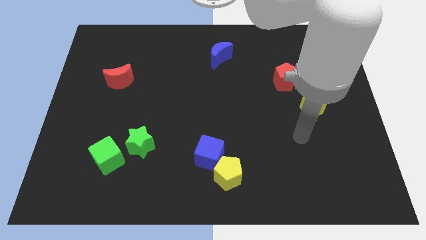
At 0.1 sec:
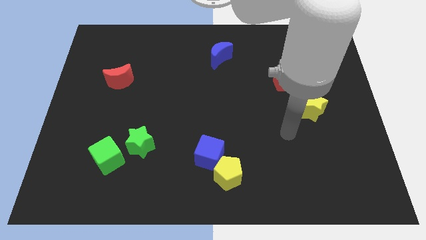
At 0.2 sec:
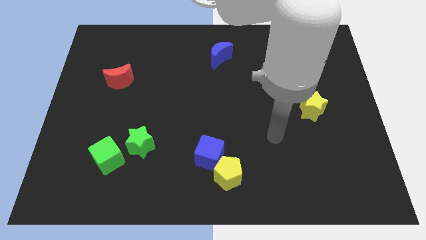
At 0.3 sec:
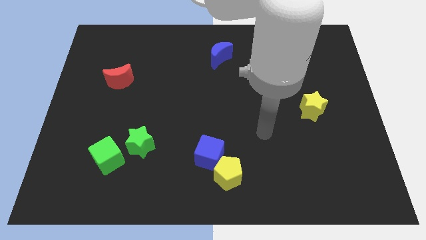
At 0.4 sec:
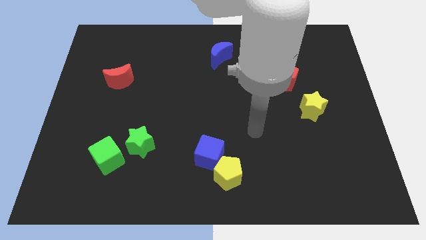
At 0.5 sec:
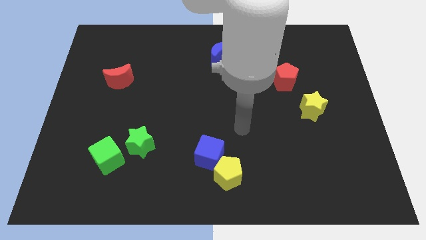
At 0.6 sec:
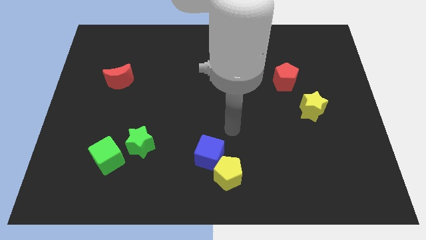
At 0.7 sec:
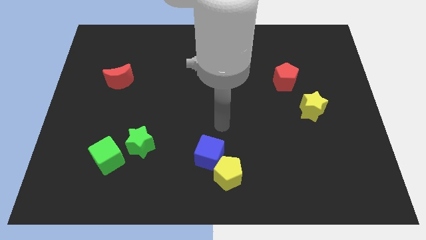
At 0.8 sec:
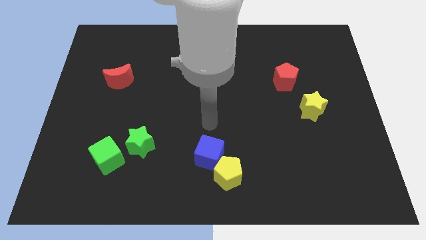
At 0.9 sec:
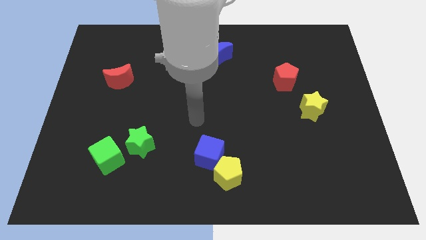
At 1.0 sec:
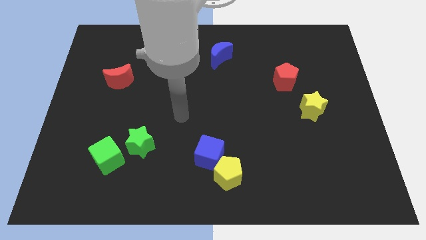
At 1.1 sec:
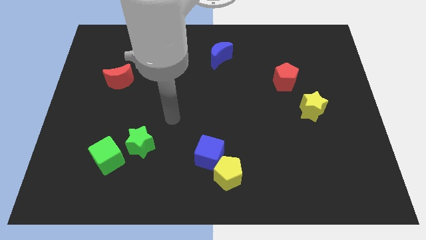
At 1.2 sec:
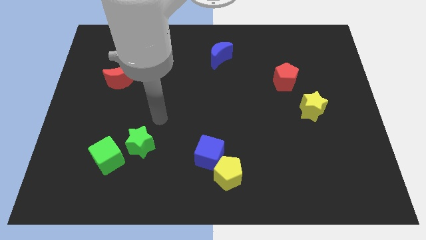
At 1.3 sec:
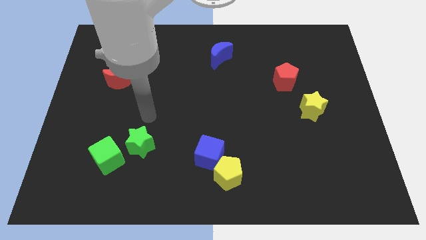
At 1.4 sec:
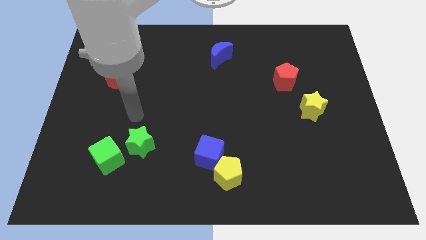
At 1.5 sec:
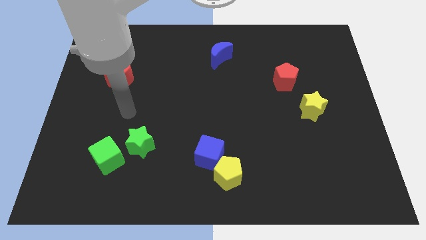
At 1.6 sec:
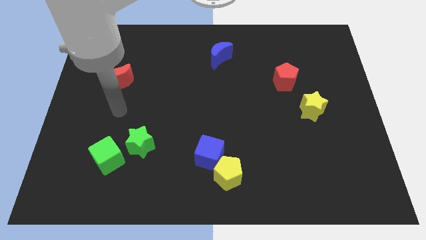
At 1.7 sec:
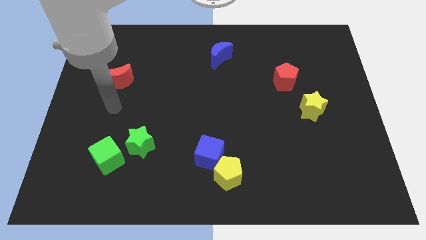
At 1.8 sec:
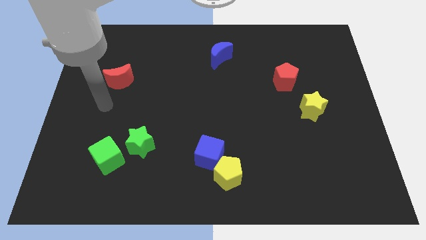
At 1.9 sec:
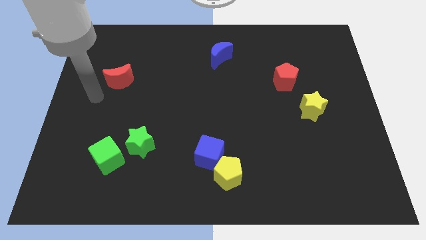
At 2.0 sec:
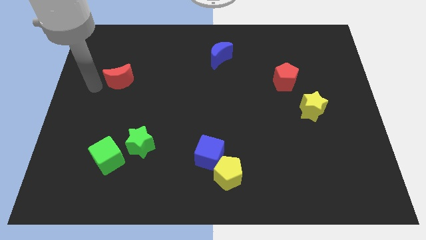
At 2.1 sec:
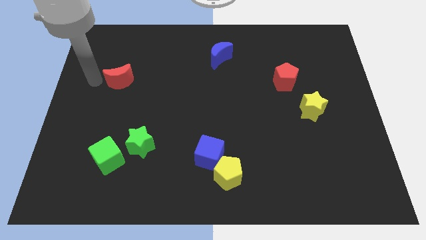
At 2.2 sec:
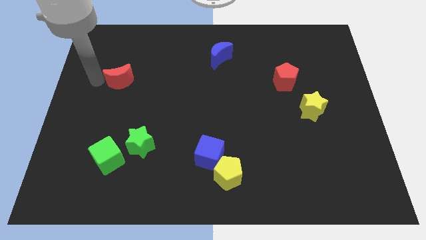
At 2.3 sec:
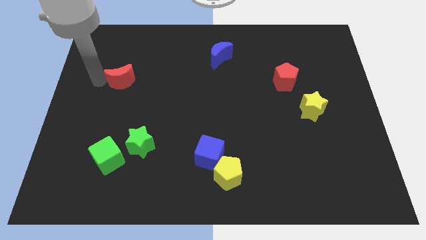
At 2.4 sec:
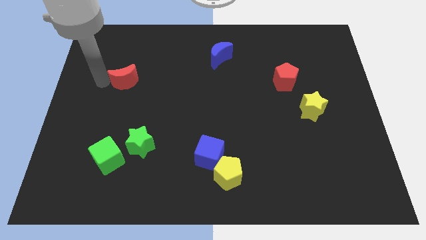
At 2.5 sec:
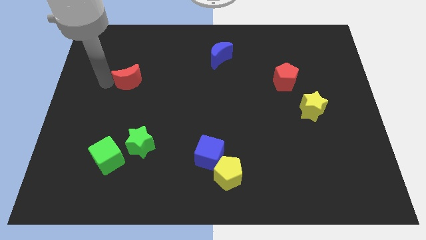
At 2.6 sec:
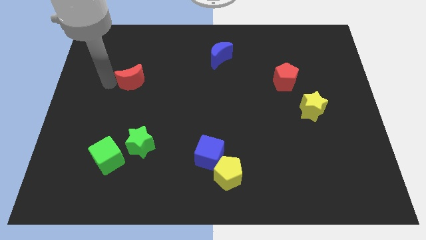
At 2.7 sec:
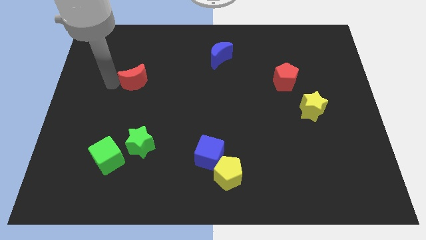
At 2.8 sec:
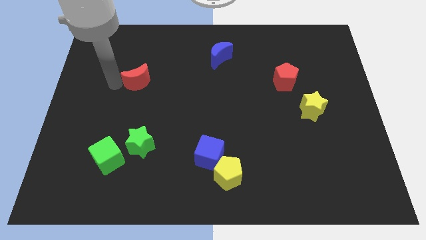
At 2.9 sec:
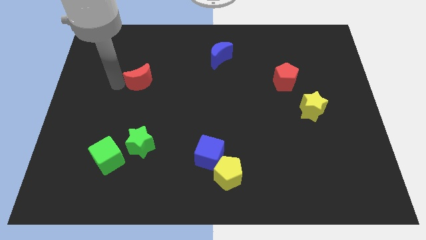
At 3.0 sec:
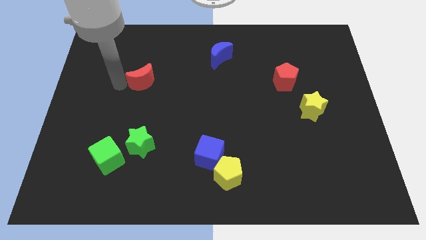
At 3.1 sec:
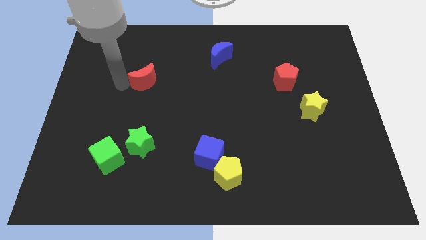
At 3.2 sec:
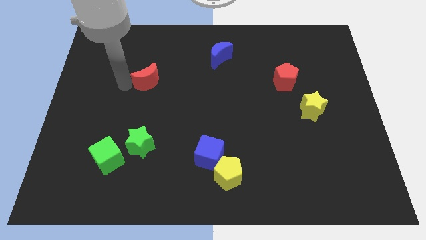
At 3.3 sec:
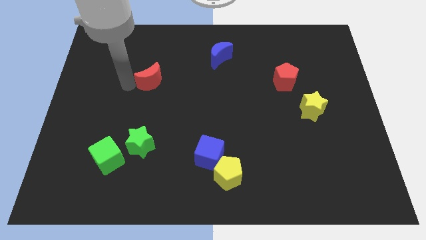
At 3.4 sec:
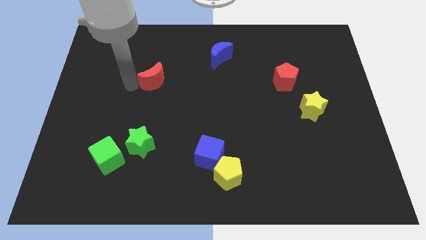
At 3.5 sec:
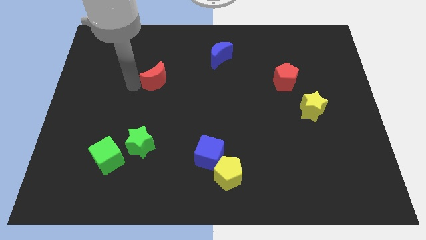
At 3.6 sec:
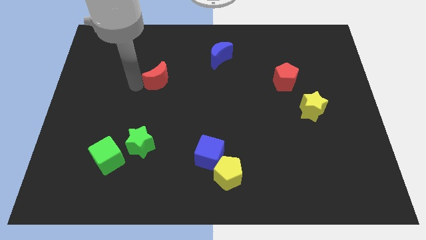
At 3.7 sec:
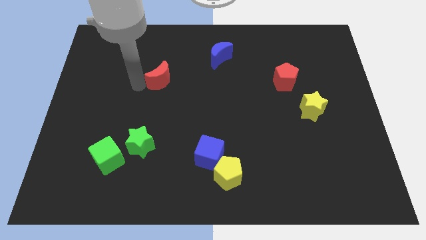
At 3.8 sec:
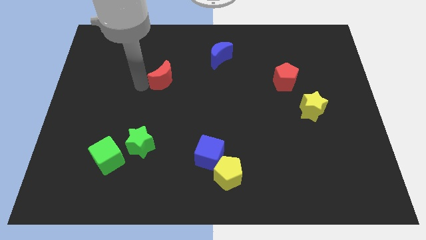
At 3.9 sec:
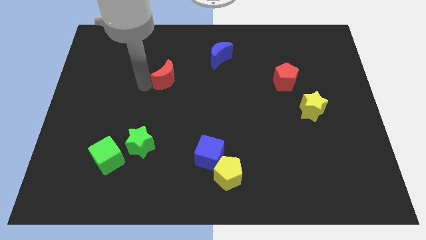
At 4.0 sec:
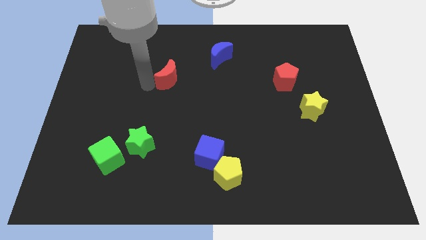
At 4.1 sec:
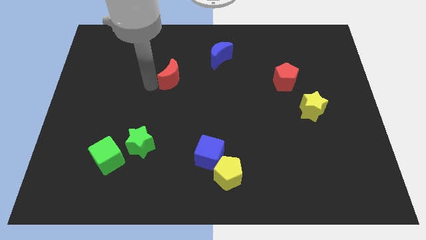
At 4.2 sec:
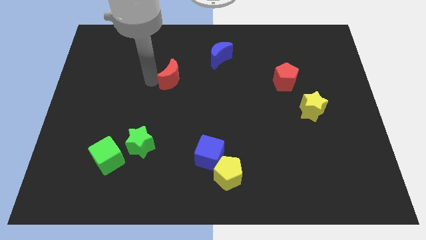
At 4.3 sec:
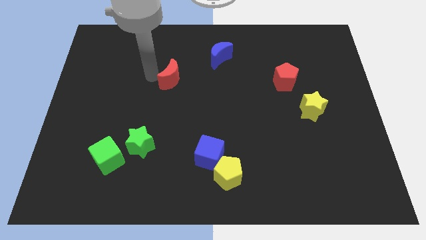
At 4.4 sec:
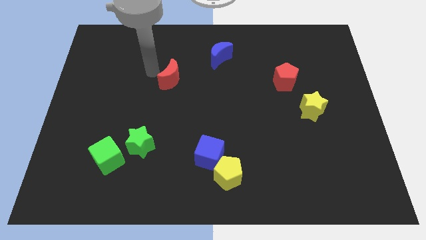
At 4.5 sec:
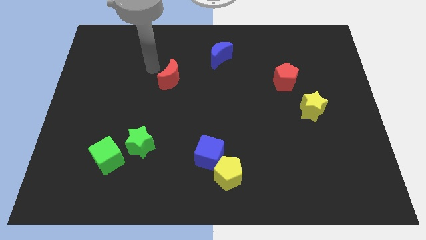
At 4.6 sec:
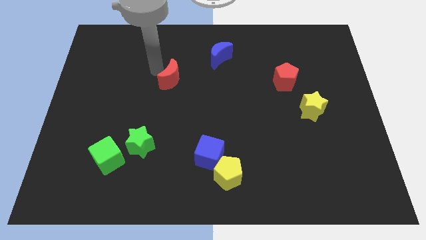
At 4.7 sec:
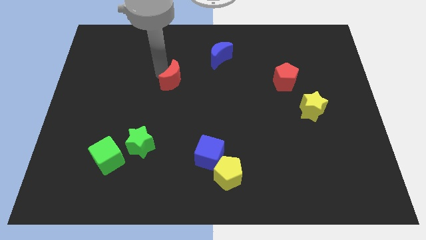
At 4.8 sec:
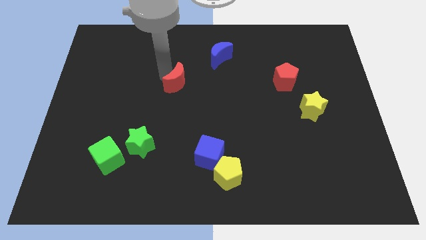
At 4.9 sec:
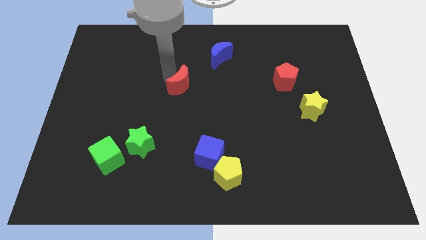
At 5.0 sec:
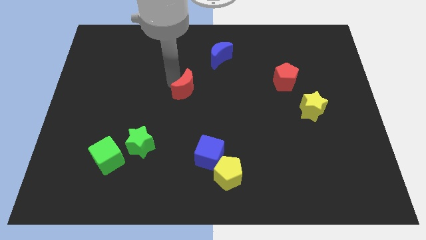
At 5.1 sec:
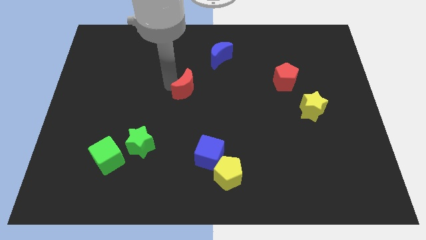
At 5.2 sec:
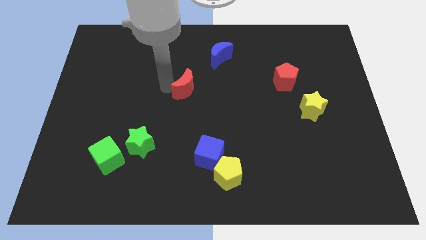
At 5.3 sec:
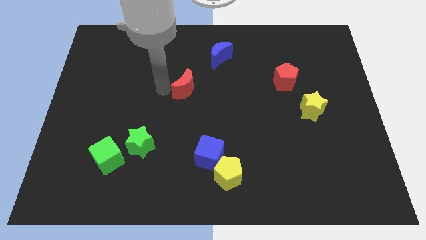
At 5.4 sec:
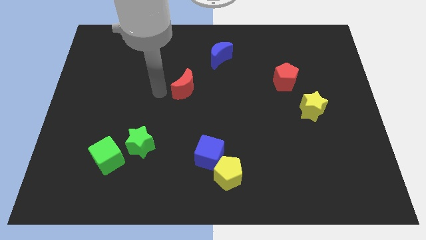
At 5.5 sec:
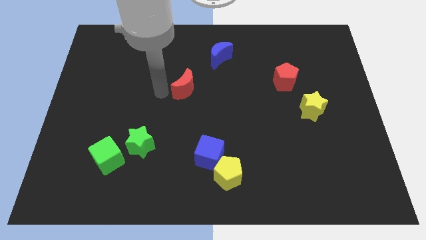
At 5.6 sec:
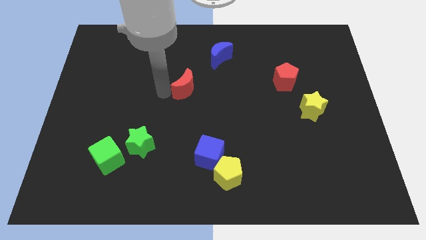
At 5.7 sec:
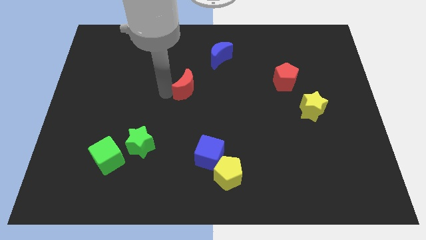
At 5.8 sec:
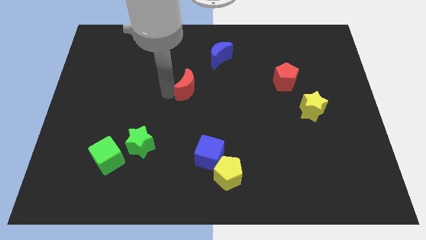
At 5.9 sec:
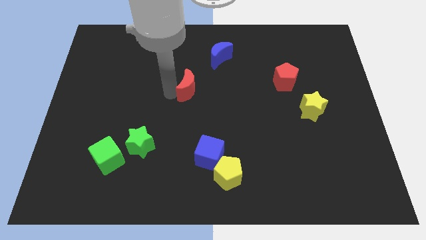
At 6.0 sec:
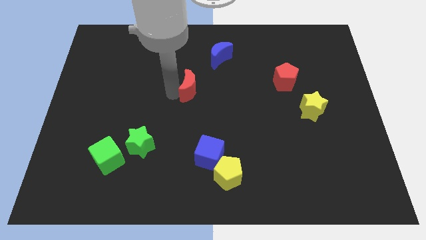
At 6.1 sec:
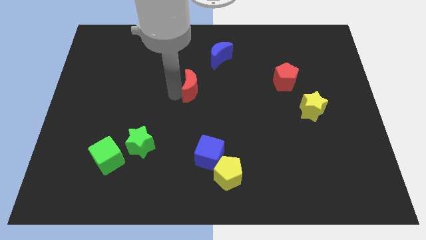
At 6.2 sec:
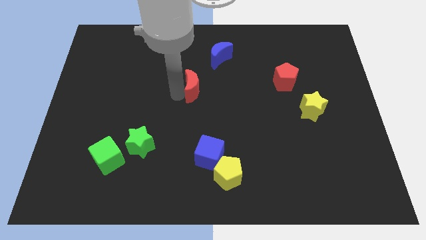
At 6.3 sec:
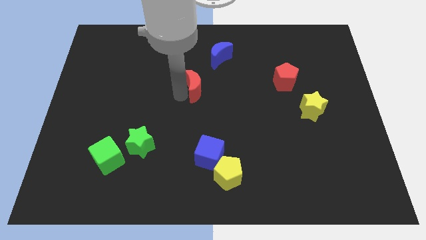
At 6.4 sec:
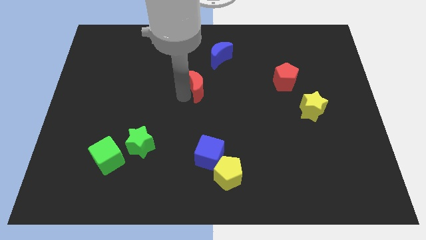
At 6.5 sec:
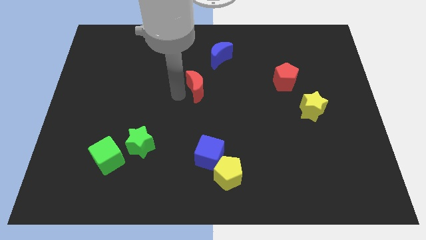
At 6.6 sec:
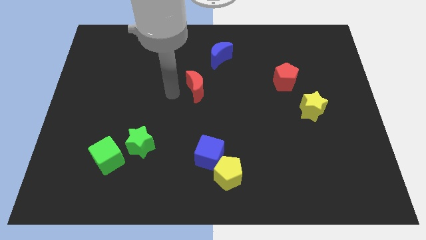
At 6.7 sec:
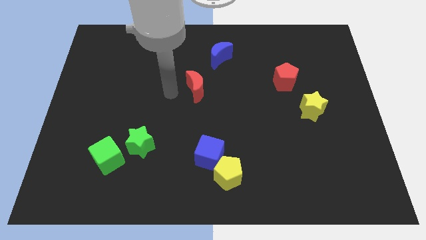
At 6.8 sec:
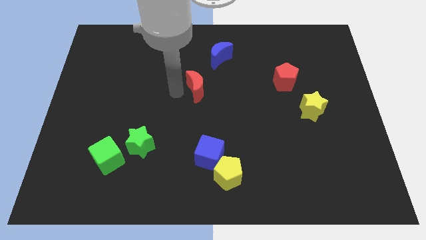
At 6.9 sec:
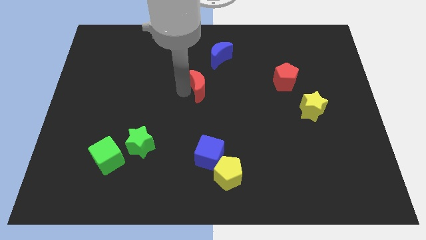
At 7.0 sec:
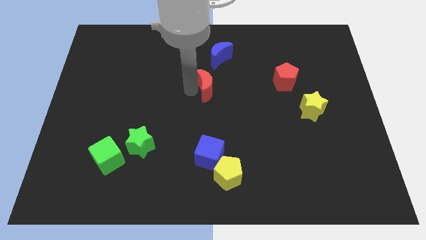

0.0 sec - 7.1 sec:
slide the red moon to the right

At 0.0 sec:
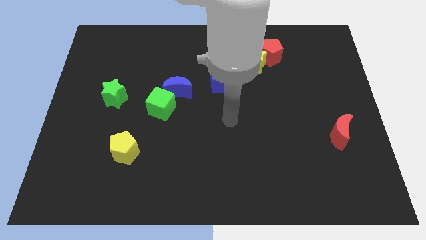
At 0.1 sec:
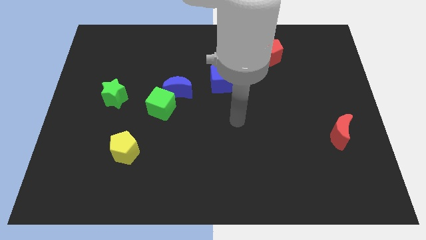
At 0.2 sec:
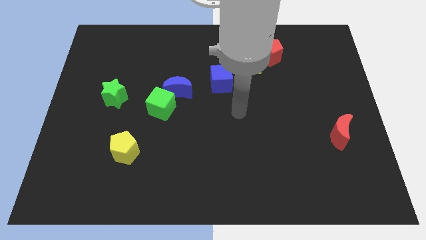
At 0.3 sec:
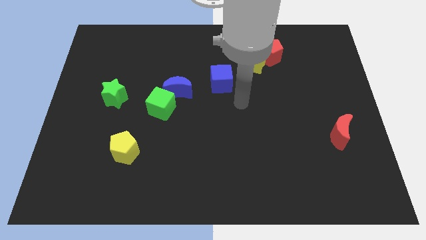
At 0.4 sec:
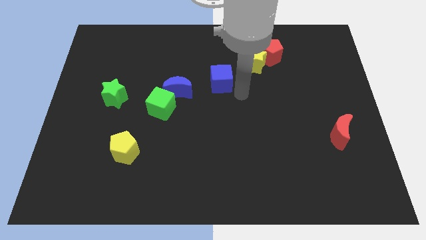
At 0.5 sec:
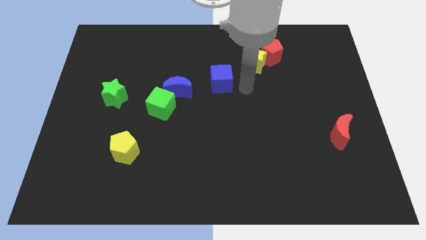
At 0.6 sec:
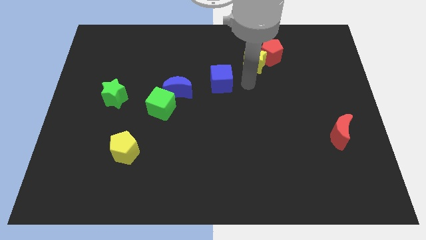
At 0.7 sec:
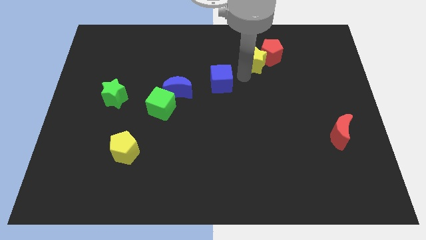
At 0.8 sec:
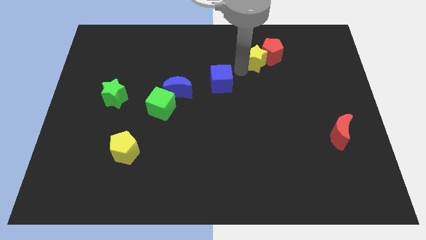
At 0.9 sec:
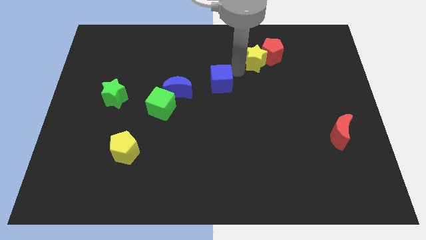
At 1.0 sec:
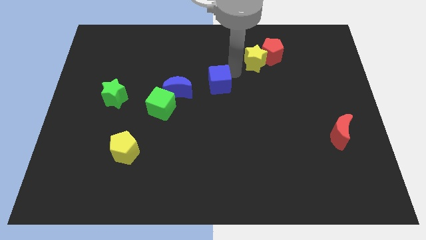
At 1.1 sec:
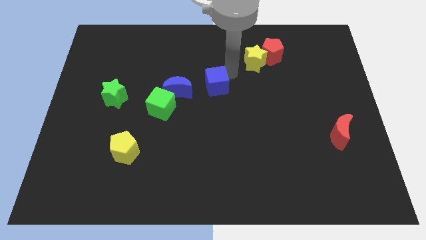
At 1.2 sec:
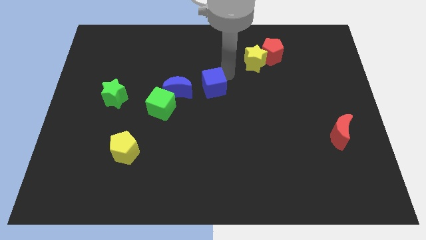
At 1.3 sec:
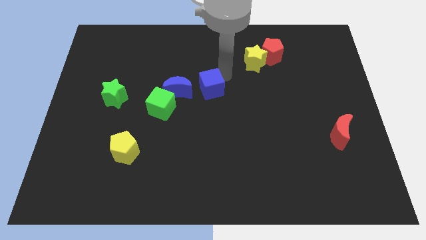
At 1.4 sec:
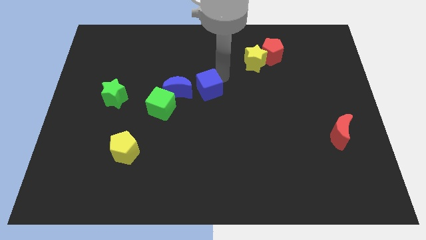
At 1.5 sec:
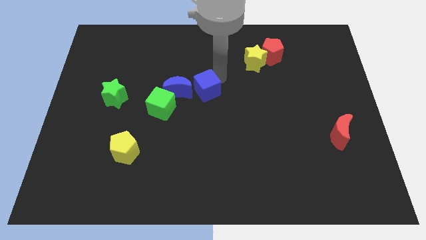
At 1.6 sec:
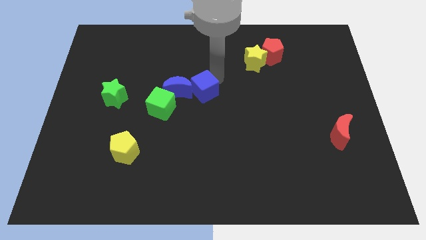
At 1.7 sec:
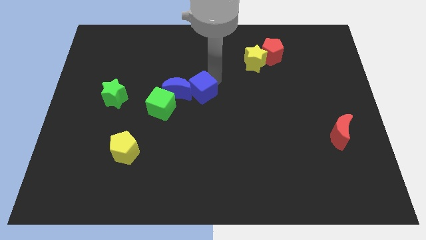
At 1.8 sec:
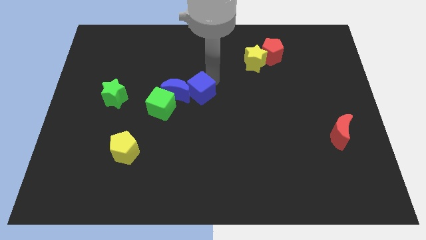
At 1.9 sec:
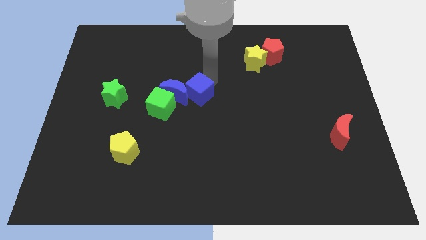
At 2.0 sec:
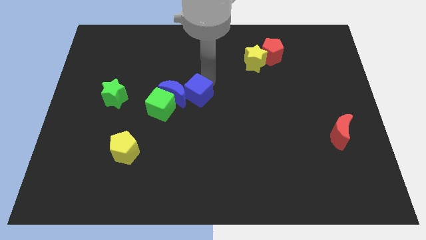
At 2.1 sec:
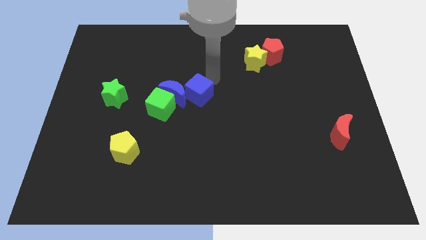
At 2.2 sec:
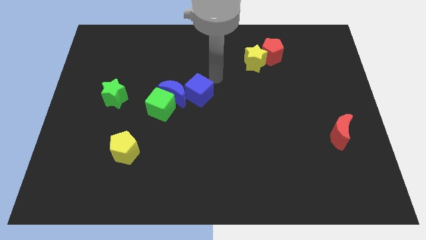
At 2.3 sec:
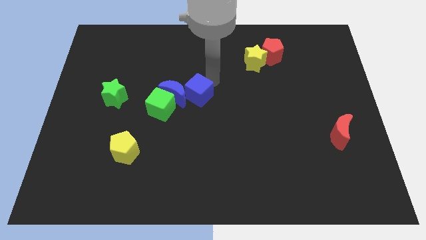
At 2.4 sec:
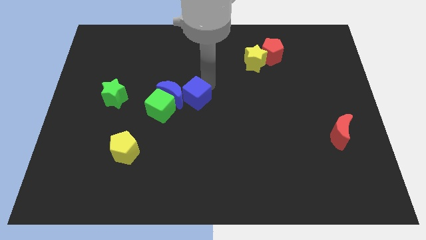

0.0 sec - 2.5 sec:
move the blue cube down and then left a bit
